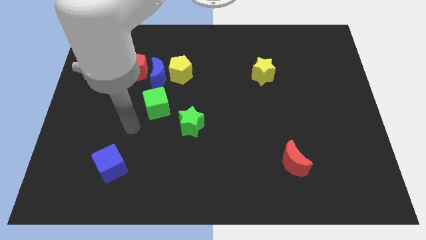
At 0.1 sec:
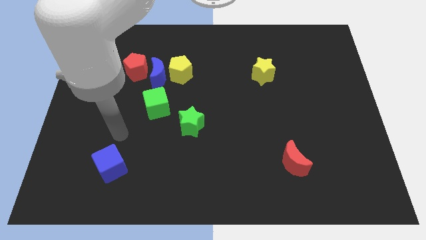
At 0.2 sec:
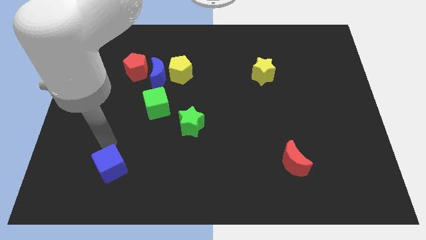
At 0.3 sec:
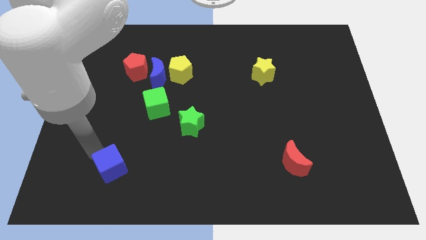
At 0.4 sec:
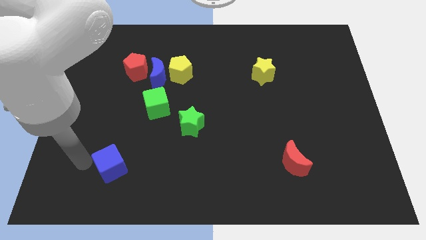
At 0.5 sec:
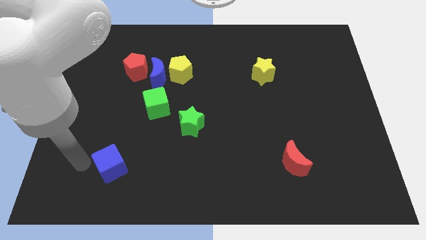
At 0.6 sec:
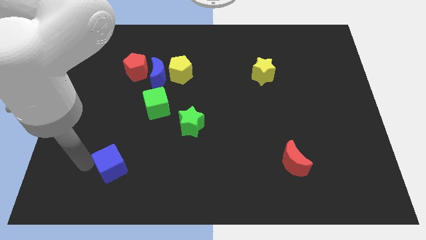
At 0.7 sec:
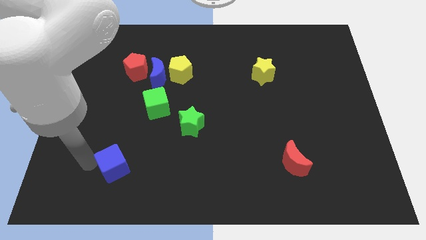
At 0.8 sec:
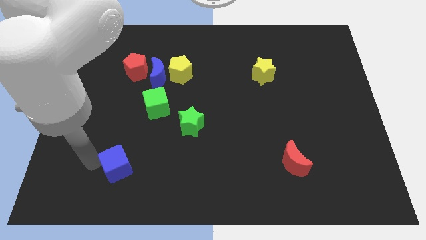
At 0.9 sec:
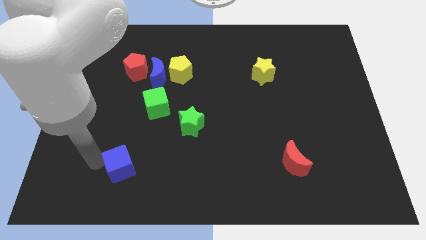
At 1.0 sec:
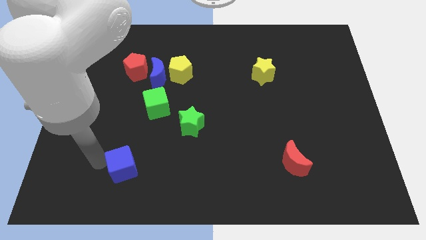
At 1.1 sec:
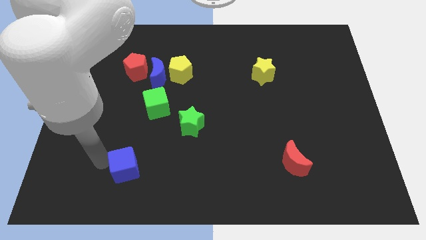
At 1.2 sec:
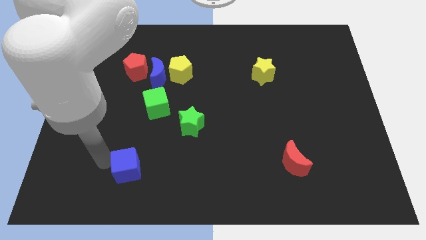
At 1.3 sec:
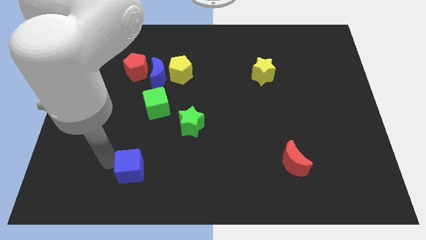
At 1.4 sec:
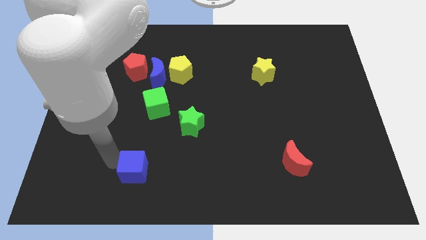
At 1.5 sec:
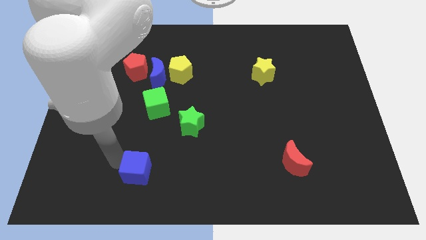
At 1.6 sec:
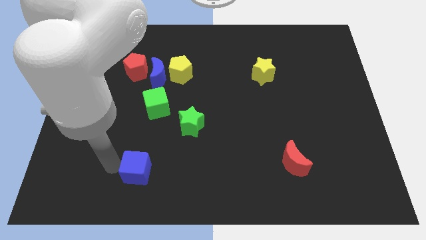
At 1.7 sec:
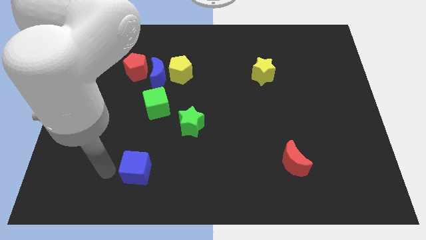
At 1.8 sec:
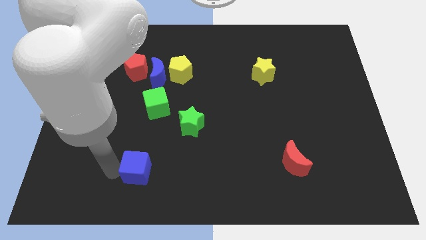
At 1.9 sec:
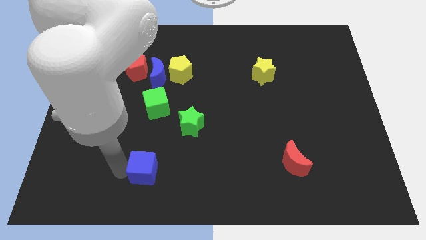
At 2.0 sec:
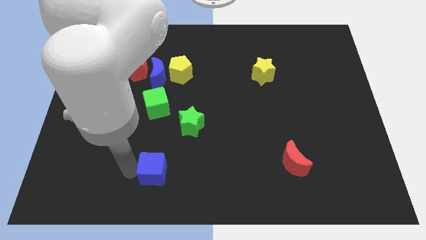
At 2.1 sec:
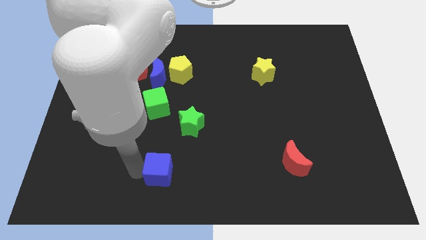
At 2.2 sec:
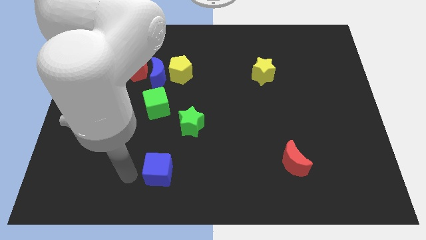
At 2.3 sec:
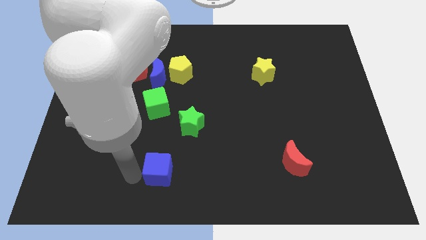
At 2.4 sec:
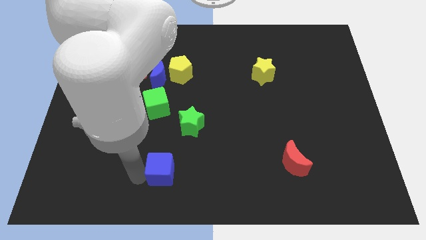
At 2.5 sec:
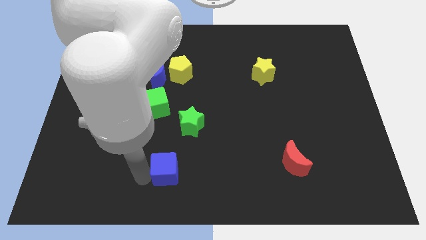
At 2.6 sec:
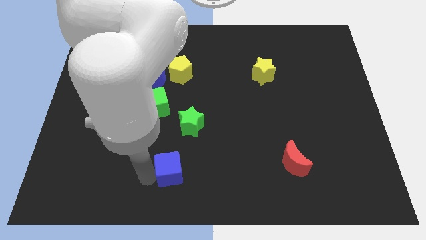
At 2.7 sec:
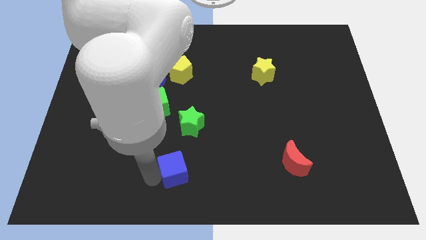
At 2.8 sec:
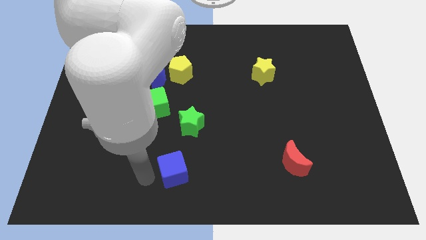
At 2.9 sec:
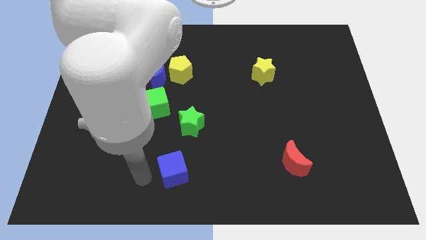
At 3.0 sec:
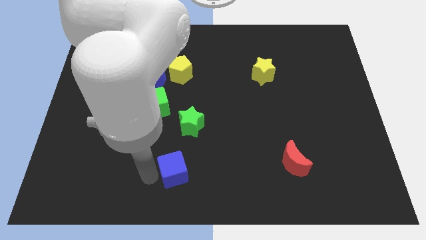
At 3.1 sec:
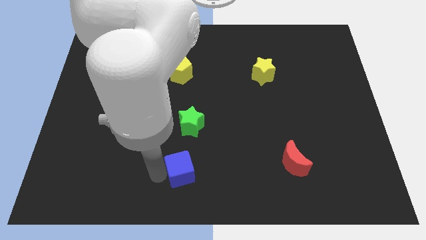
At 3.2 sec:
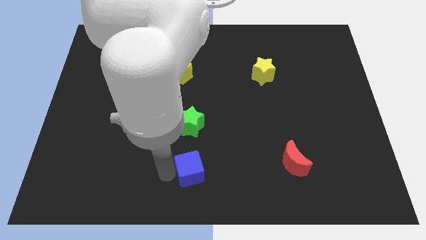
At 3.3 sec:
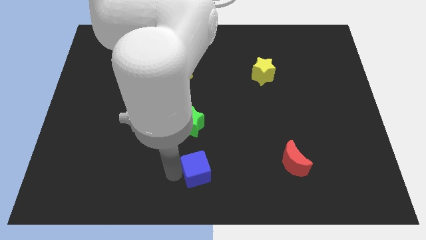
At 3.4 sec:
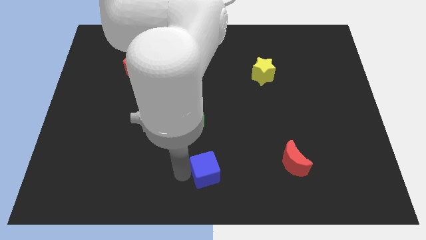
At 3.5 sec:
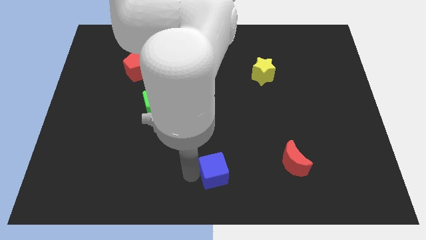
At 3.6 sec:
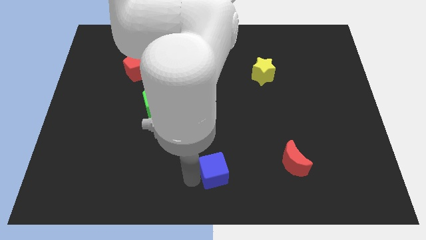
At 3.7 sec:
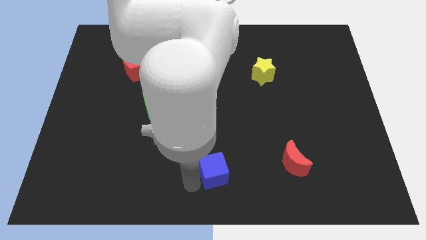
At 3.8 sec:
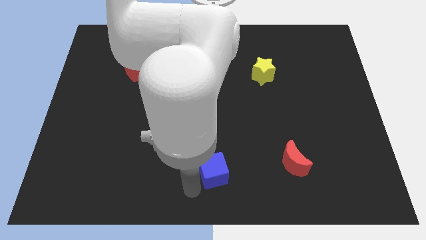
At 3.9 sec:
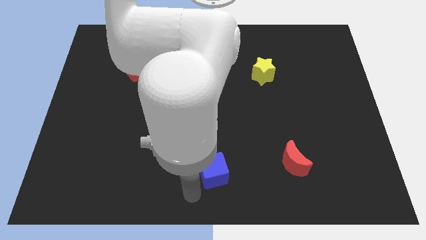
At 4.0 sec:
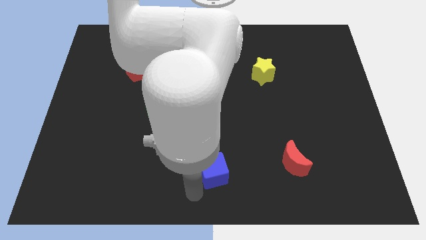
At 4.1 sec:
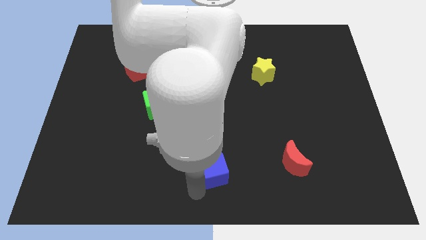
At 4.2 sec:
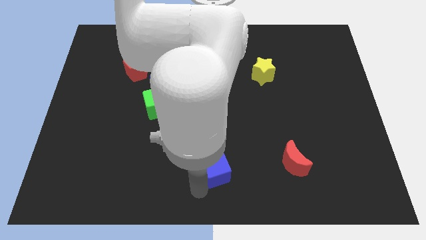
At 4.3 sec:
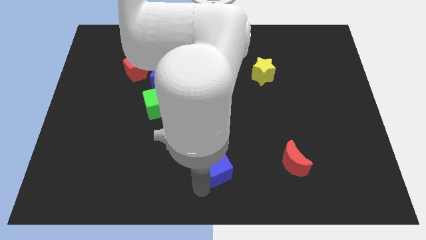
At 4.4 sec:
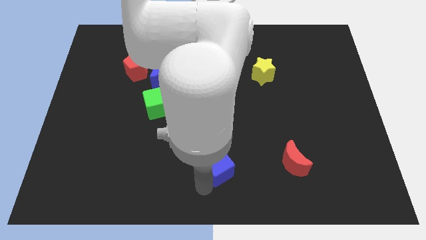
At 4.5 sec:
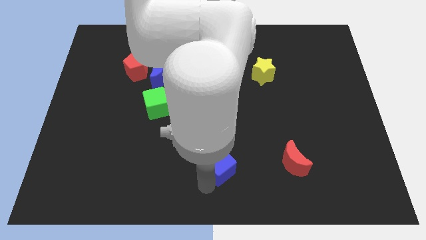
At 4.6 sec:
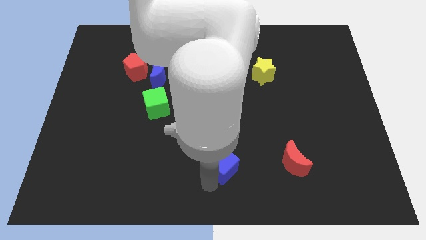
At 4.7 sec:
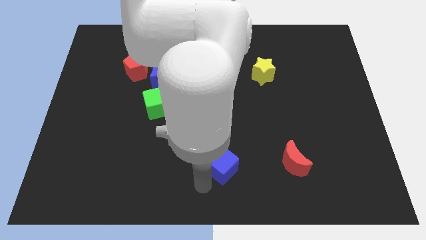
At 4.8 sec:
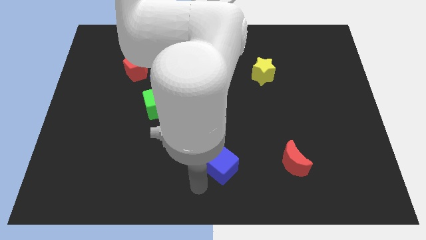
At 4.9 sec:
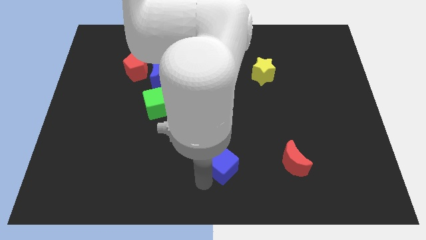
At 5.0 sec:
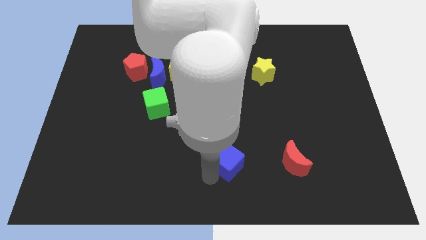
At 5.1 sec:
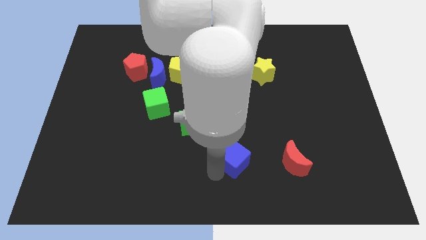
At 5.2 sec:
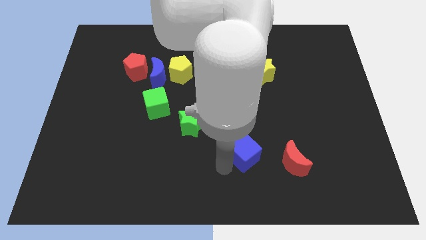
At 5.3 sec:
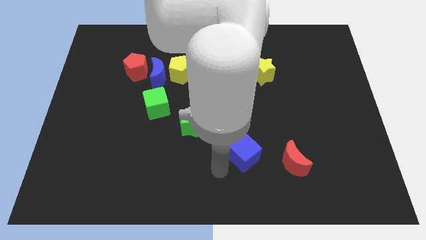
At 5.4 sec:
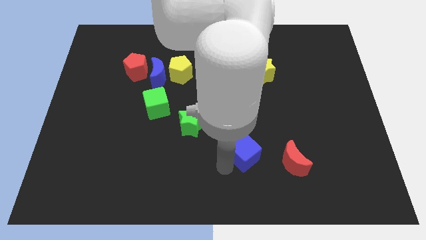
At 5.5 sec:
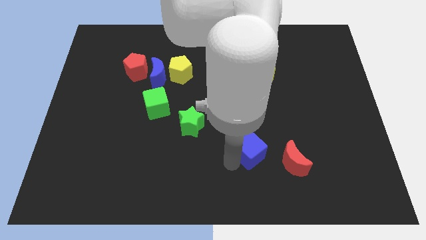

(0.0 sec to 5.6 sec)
move the blue cube diagonally up and to the left of the red moon

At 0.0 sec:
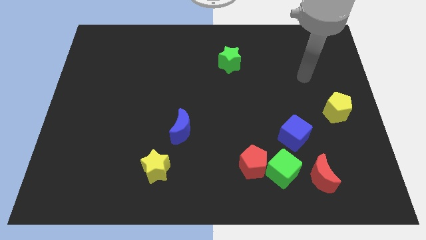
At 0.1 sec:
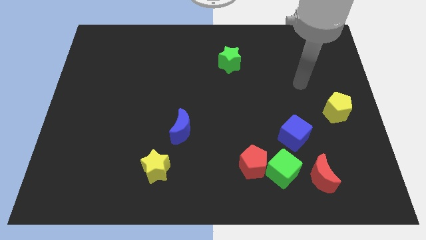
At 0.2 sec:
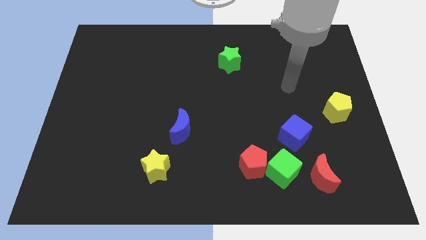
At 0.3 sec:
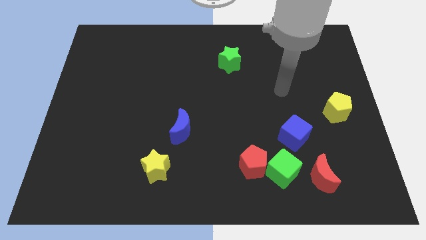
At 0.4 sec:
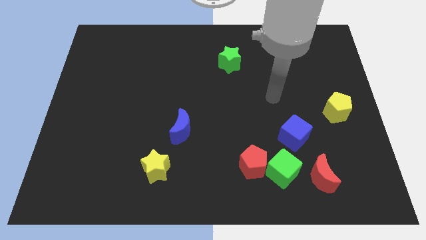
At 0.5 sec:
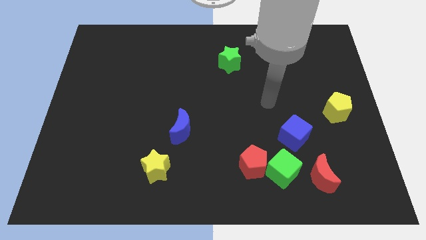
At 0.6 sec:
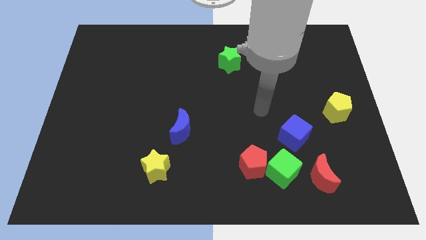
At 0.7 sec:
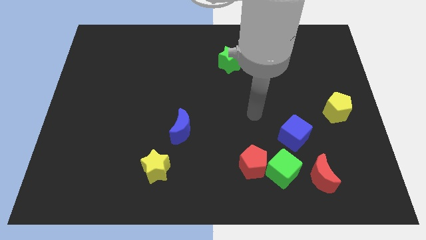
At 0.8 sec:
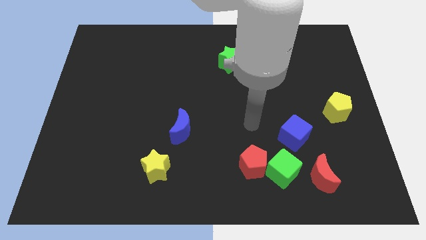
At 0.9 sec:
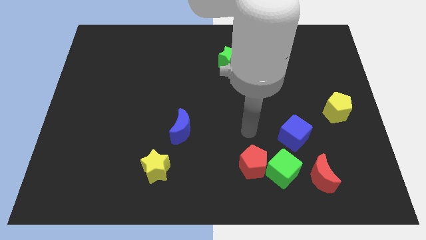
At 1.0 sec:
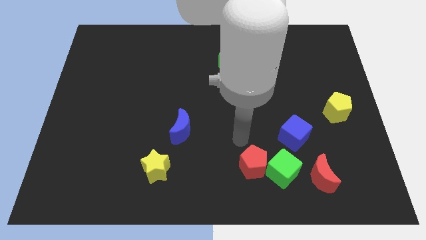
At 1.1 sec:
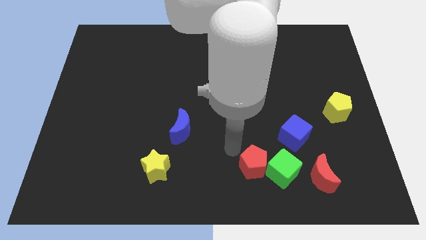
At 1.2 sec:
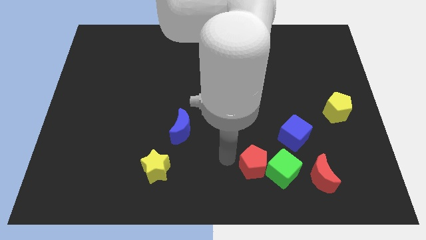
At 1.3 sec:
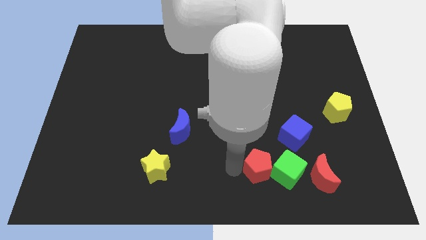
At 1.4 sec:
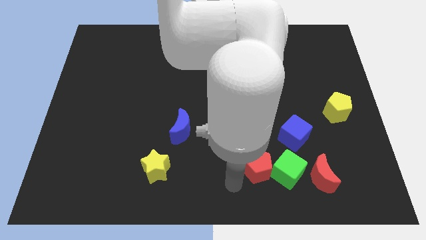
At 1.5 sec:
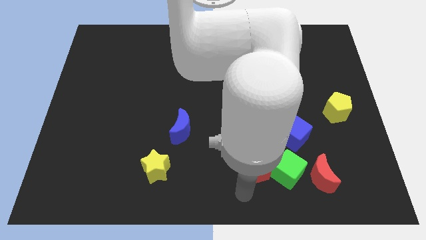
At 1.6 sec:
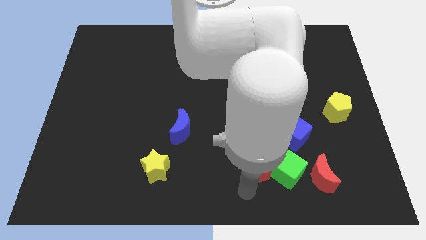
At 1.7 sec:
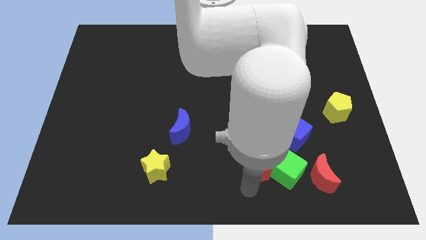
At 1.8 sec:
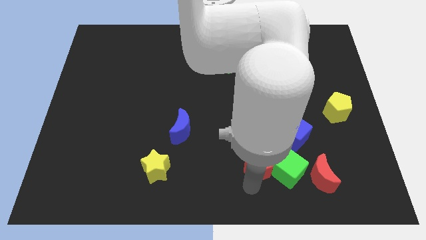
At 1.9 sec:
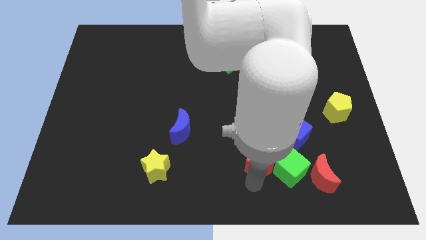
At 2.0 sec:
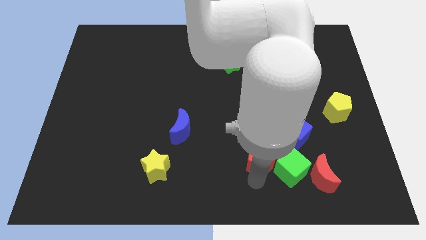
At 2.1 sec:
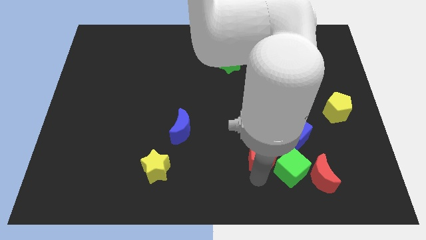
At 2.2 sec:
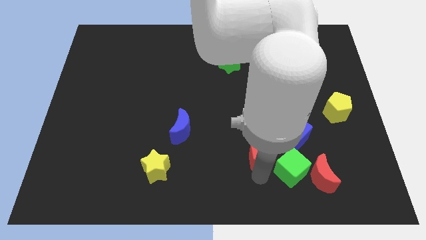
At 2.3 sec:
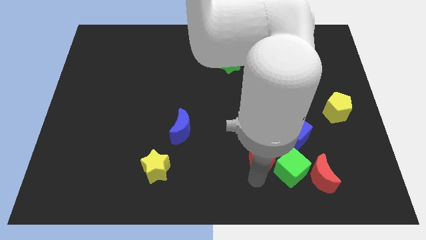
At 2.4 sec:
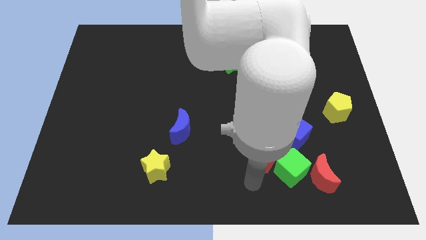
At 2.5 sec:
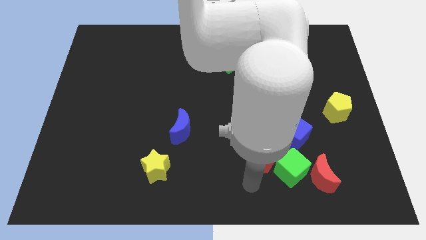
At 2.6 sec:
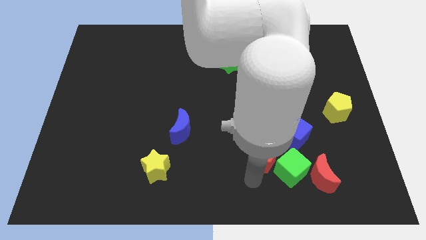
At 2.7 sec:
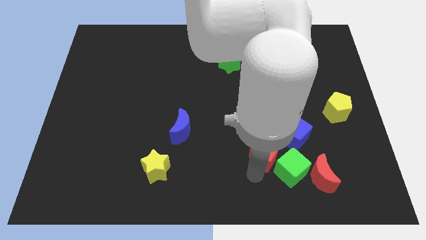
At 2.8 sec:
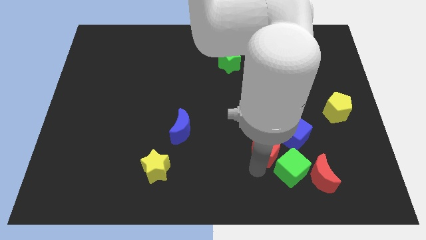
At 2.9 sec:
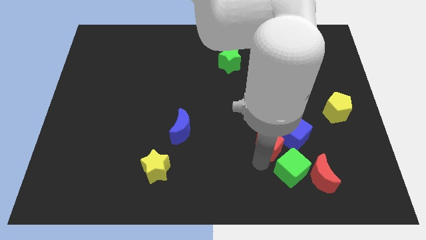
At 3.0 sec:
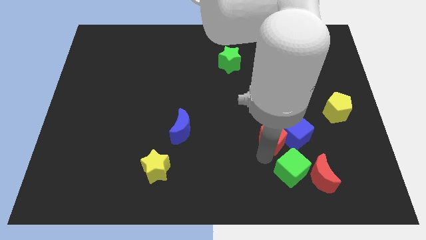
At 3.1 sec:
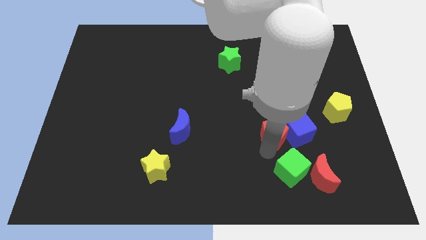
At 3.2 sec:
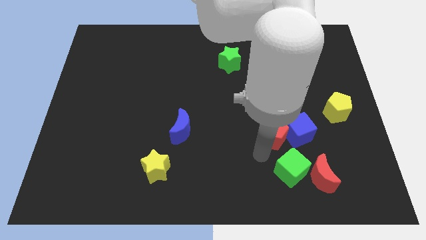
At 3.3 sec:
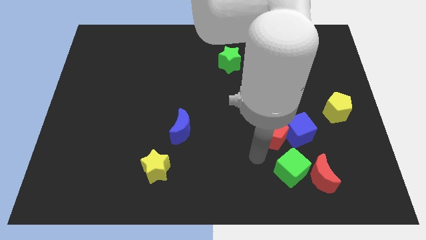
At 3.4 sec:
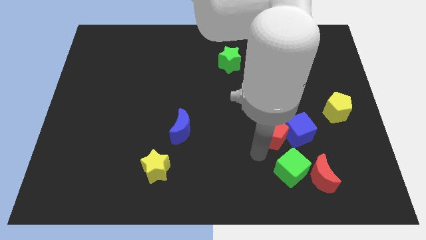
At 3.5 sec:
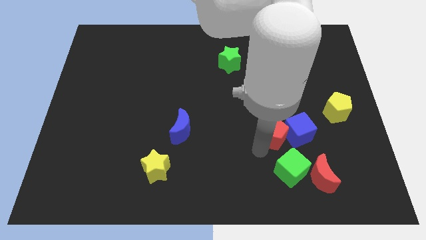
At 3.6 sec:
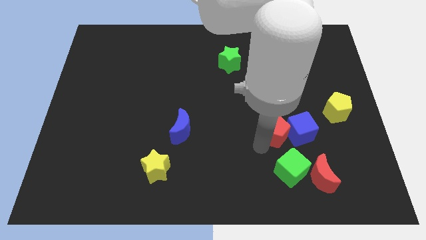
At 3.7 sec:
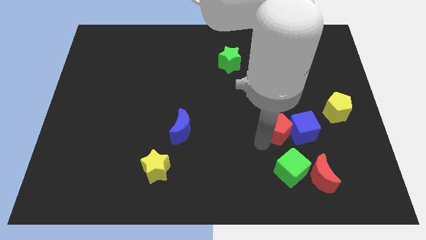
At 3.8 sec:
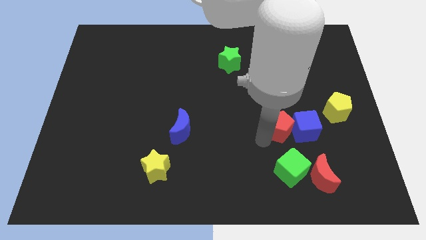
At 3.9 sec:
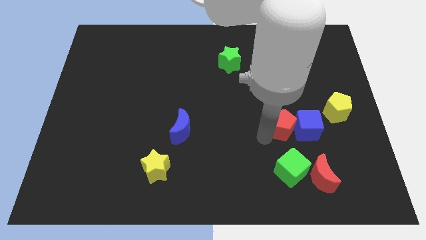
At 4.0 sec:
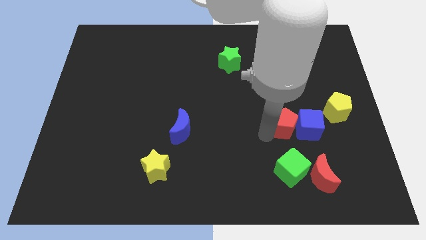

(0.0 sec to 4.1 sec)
put the red pentagon just left of the yellow pentagon
